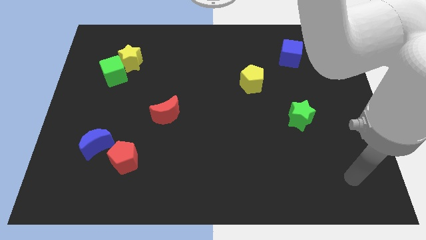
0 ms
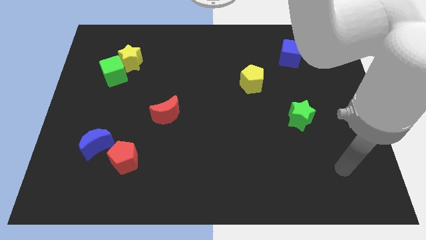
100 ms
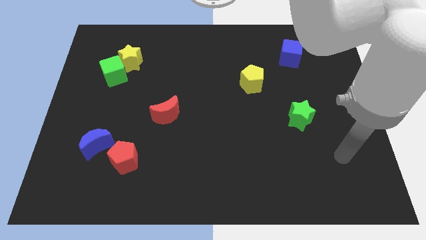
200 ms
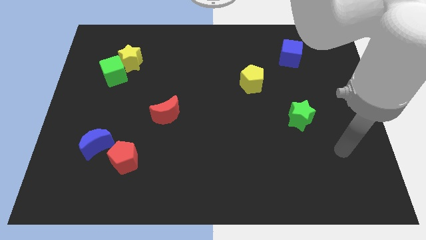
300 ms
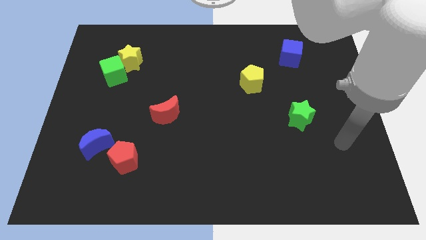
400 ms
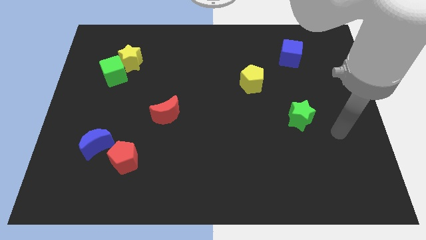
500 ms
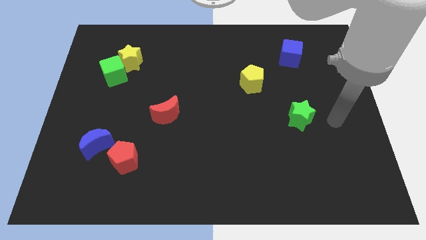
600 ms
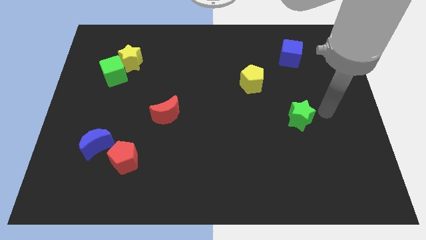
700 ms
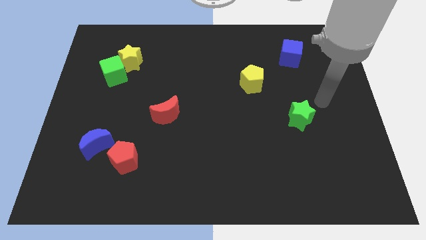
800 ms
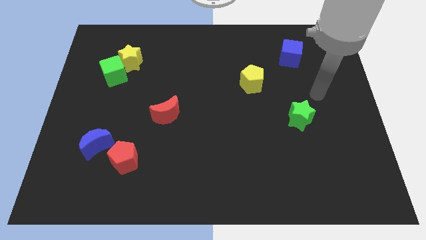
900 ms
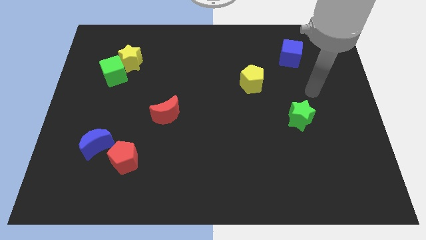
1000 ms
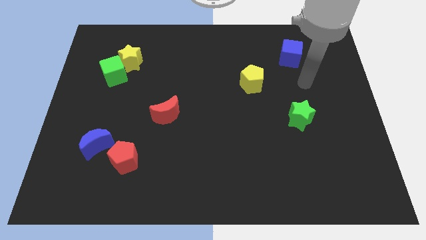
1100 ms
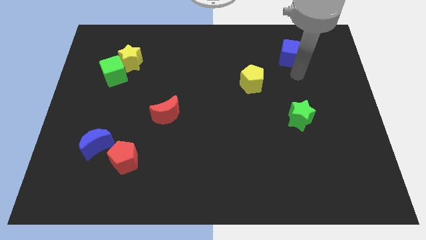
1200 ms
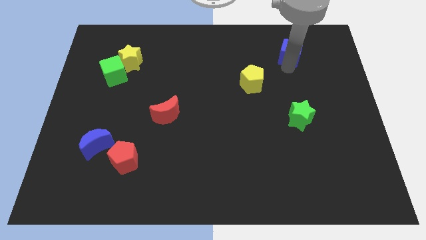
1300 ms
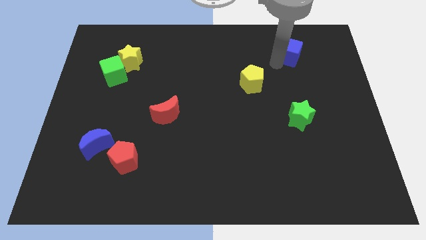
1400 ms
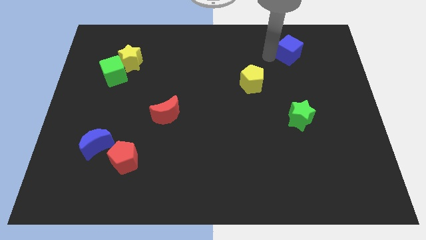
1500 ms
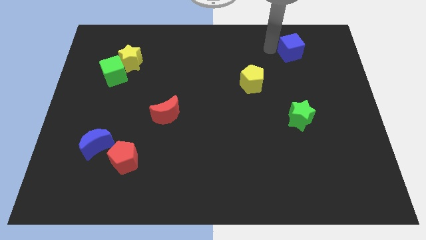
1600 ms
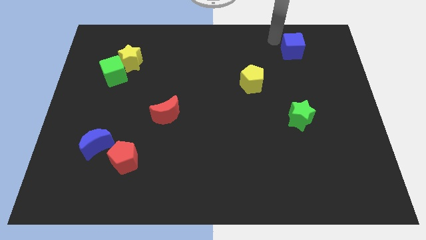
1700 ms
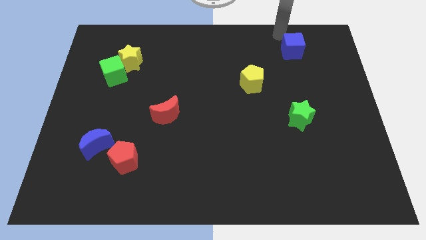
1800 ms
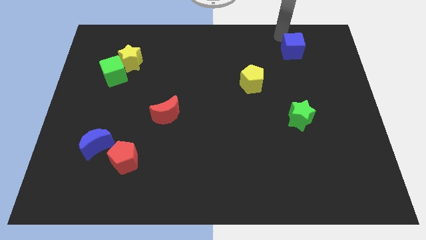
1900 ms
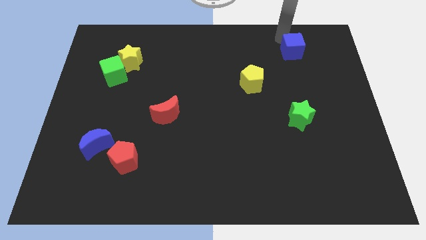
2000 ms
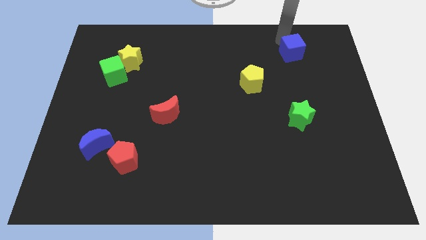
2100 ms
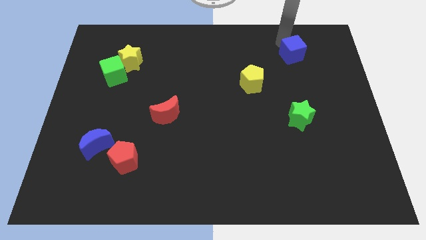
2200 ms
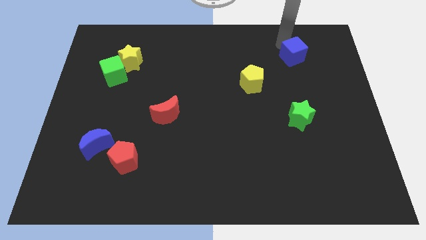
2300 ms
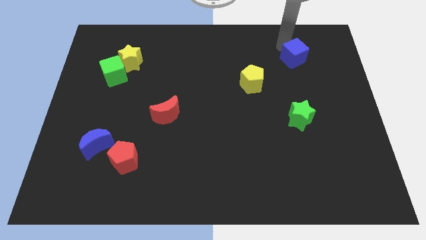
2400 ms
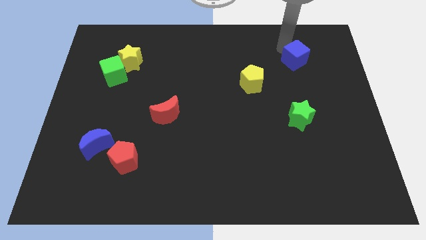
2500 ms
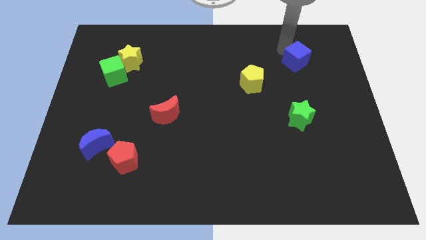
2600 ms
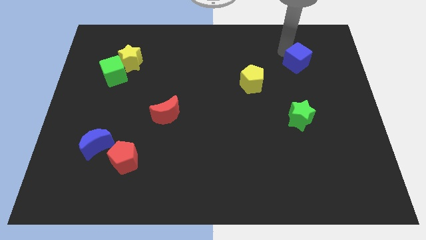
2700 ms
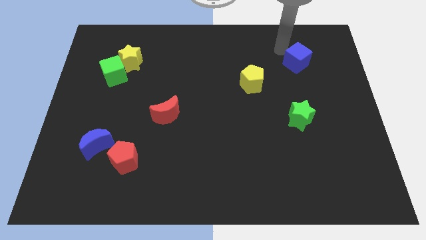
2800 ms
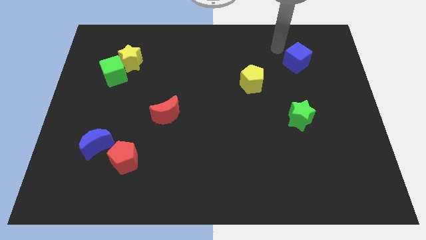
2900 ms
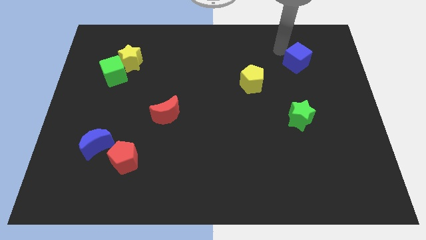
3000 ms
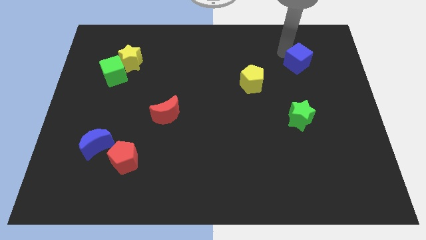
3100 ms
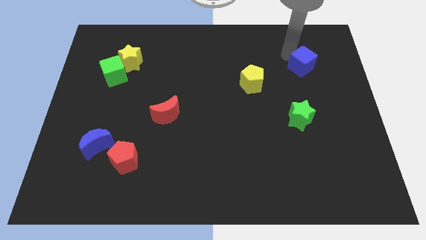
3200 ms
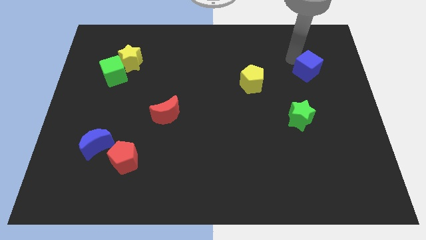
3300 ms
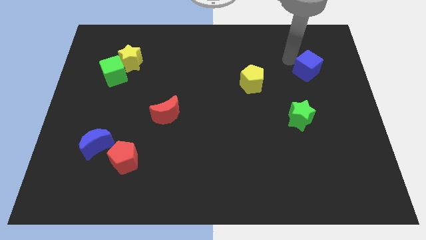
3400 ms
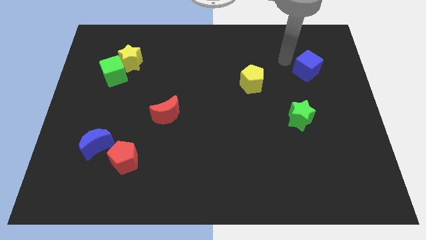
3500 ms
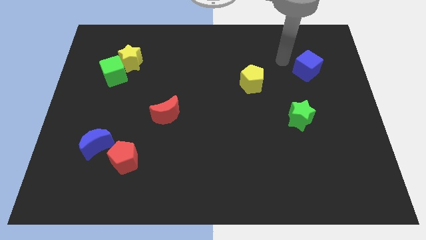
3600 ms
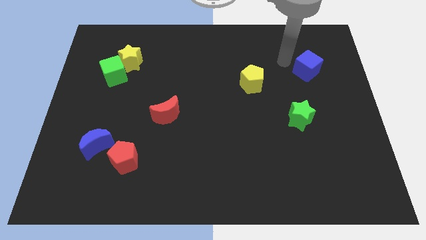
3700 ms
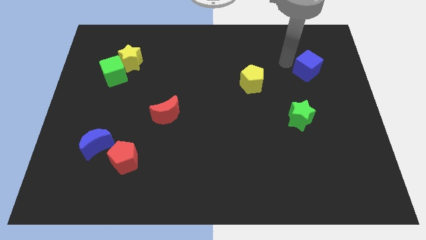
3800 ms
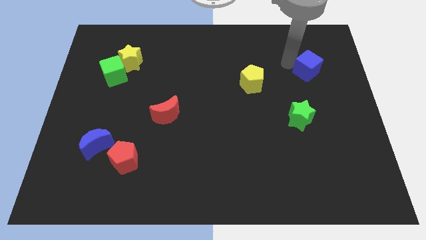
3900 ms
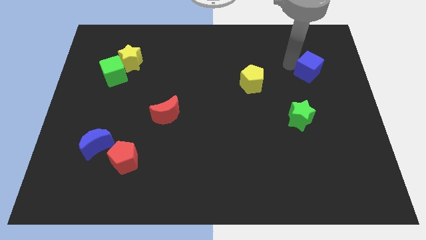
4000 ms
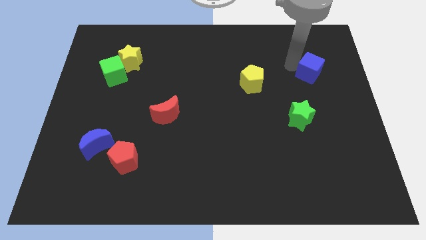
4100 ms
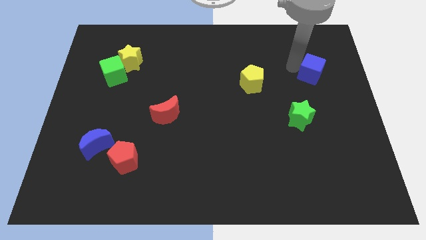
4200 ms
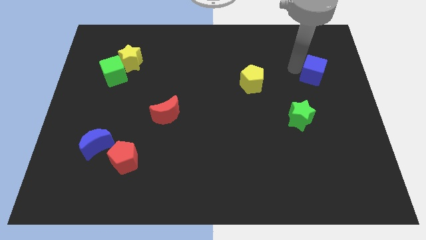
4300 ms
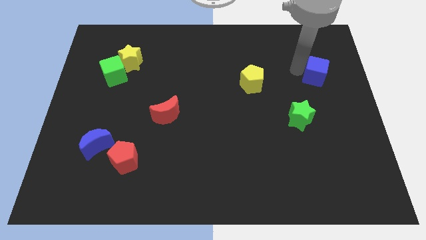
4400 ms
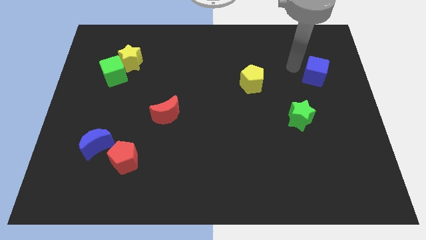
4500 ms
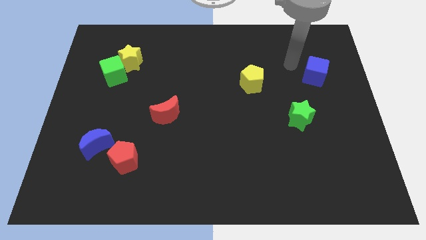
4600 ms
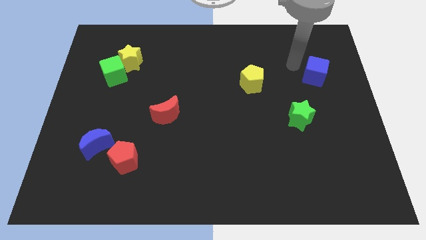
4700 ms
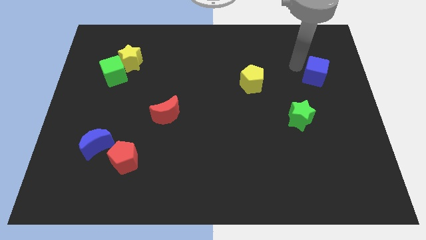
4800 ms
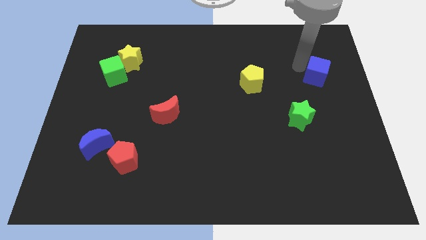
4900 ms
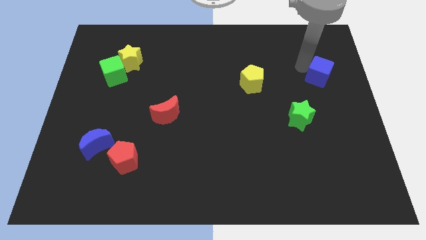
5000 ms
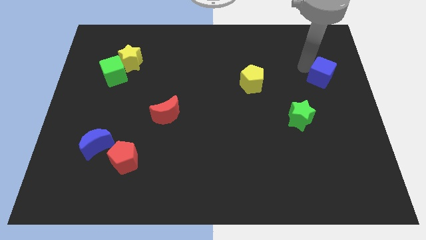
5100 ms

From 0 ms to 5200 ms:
push the blue cube to the center right

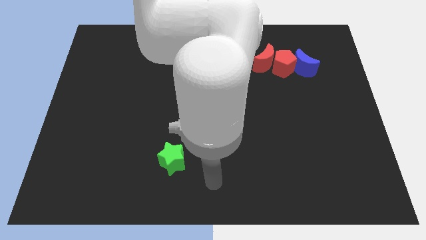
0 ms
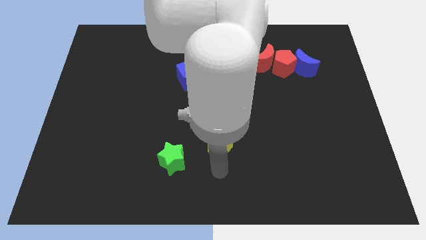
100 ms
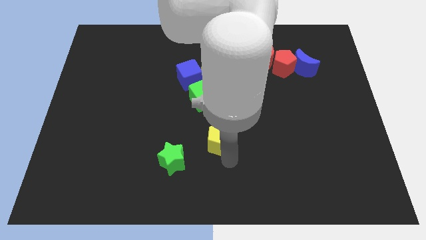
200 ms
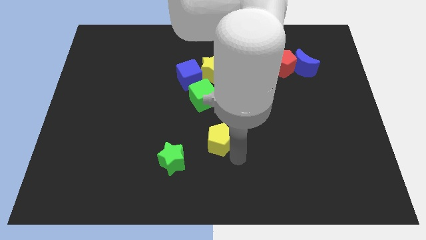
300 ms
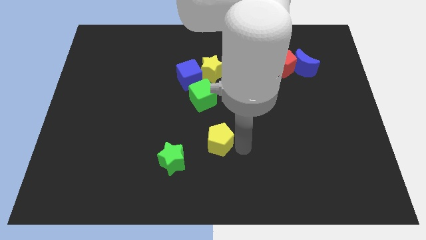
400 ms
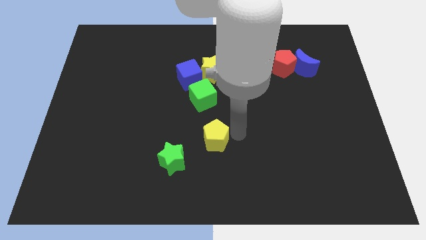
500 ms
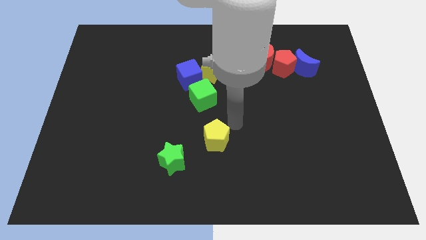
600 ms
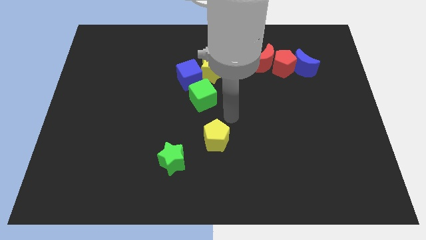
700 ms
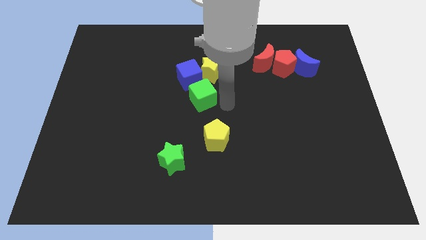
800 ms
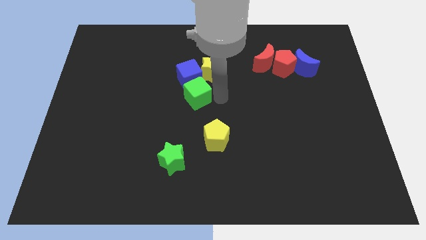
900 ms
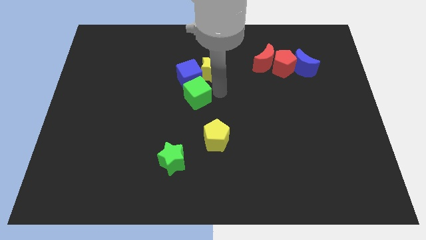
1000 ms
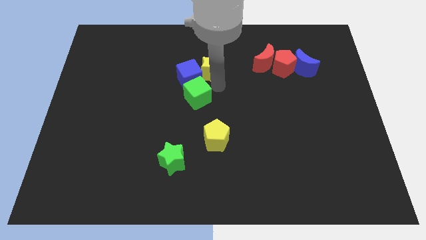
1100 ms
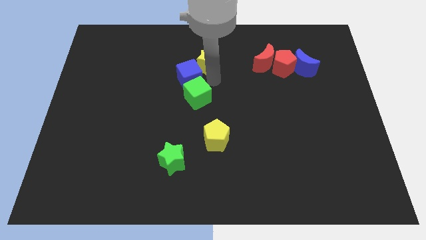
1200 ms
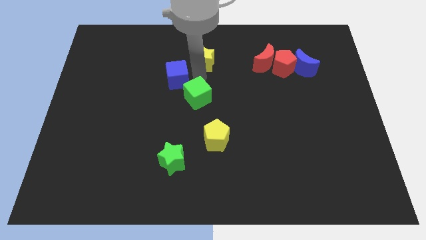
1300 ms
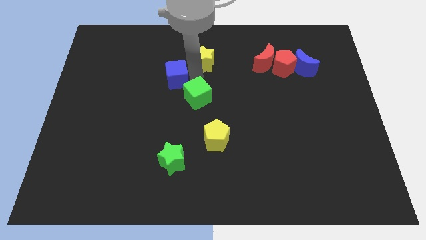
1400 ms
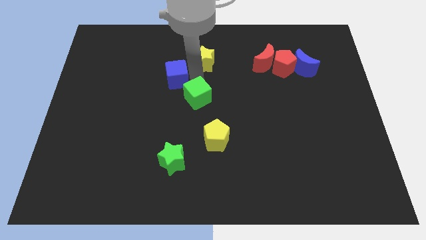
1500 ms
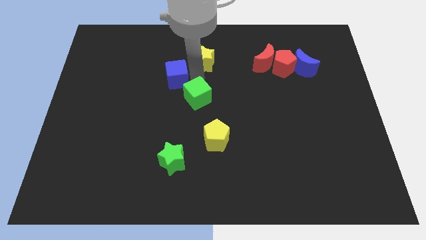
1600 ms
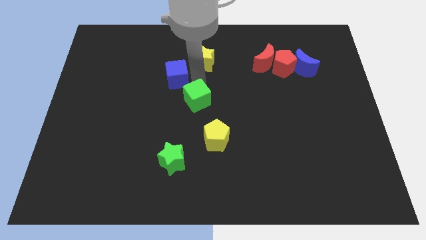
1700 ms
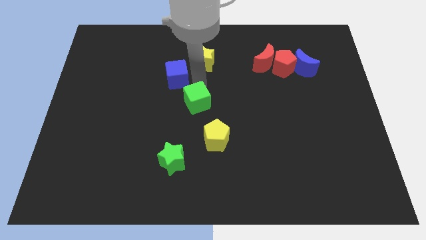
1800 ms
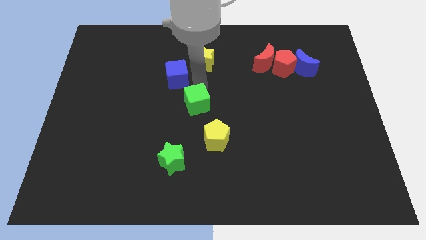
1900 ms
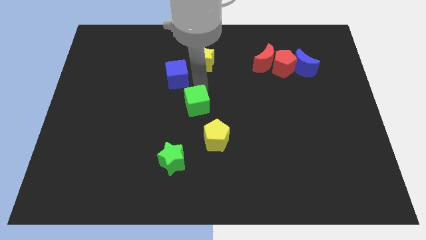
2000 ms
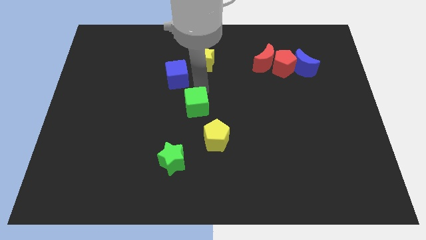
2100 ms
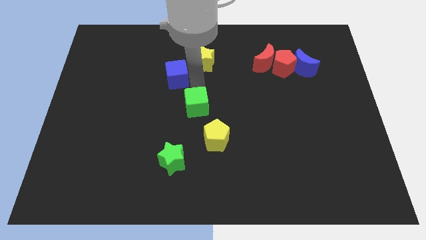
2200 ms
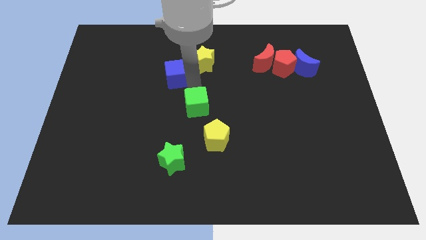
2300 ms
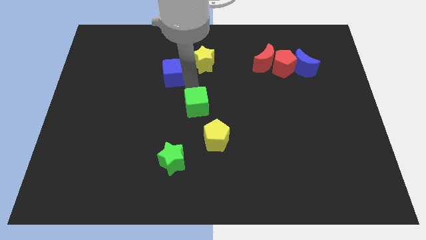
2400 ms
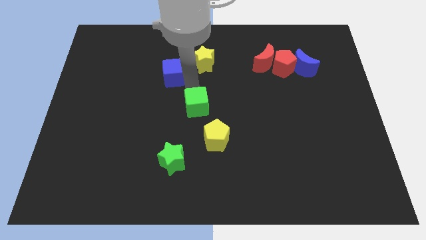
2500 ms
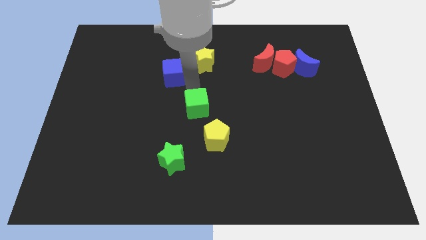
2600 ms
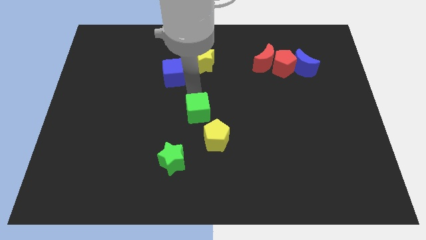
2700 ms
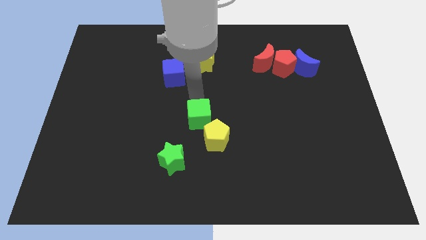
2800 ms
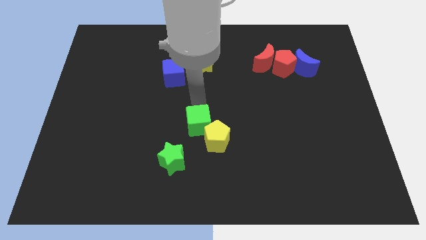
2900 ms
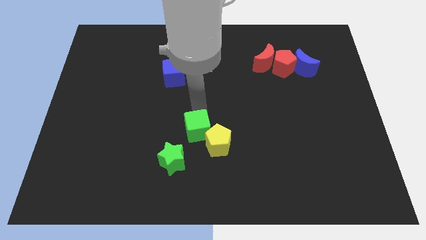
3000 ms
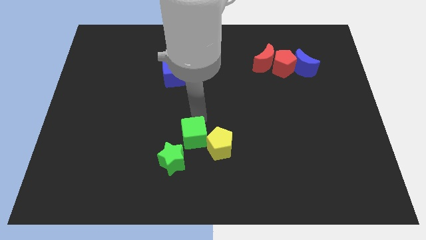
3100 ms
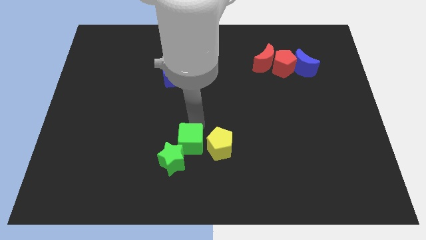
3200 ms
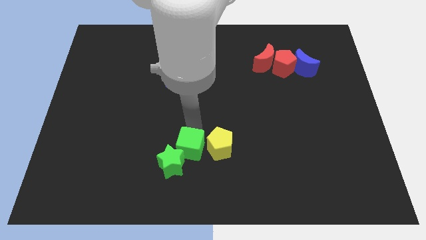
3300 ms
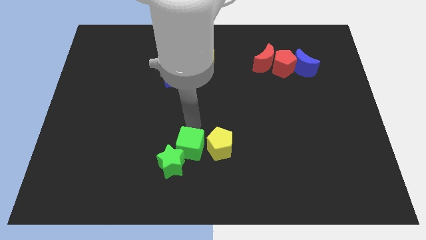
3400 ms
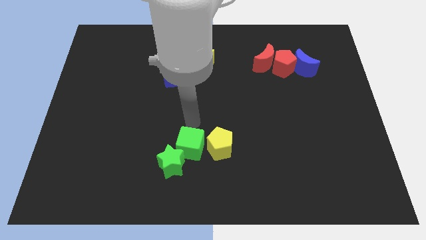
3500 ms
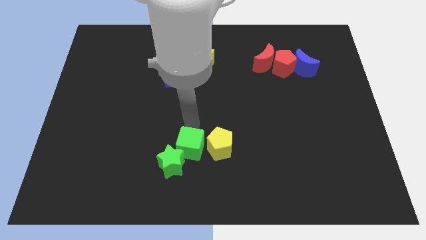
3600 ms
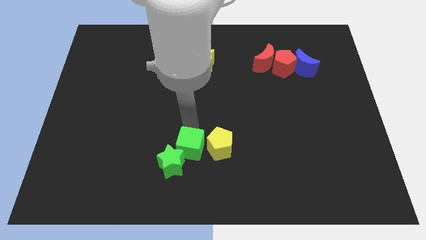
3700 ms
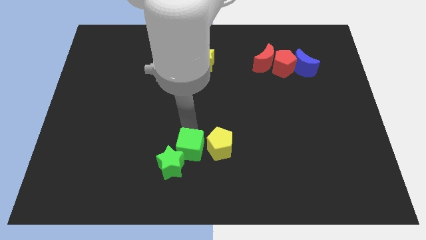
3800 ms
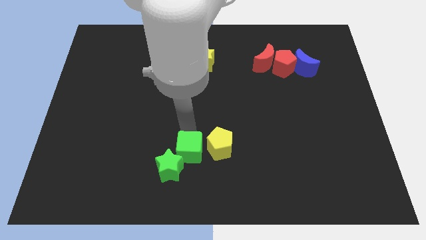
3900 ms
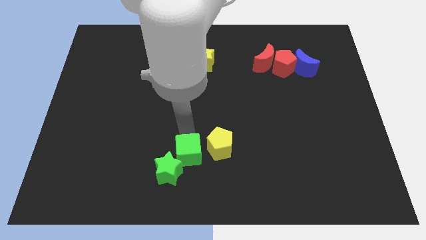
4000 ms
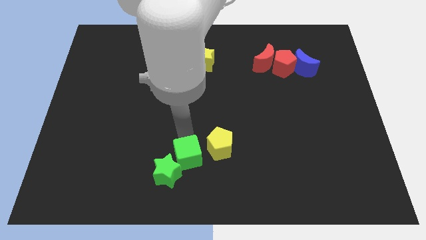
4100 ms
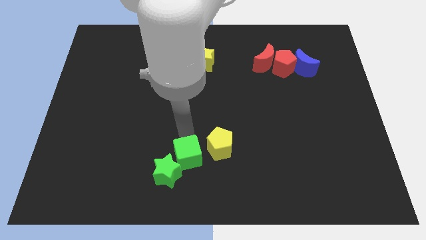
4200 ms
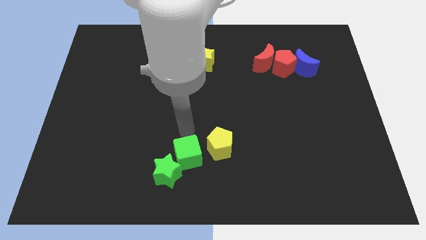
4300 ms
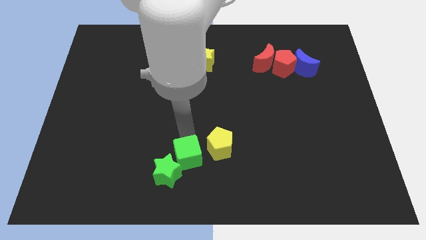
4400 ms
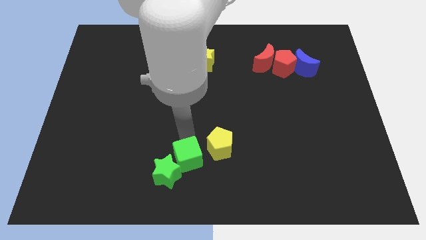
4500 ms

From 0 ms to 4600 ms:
put the green cube to the bottom side
